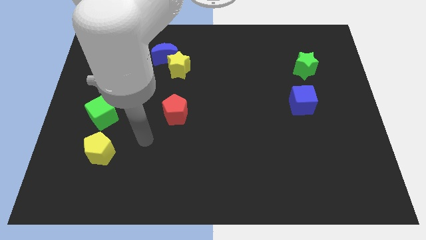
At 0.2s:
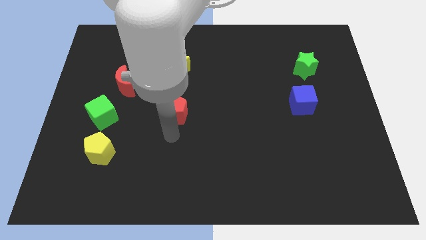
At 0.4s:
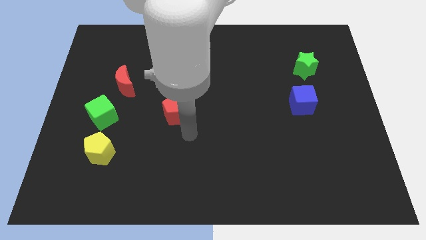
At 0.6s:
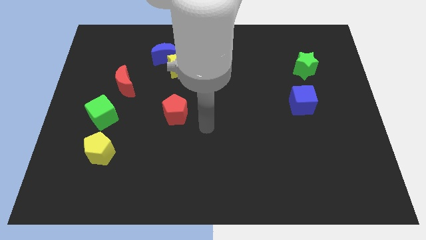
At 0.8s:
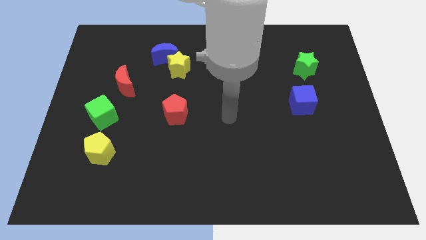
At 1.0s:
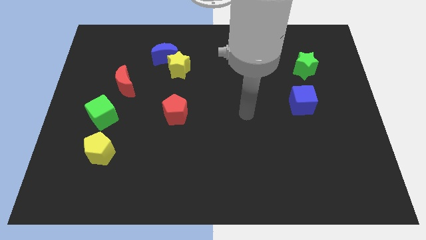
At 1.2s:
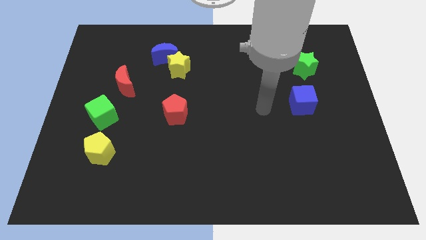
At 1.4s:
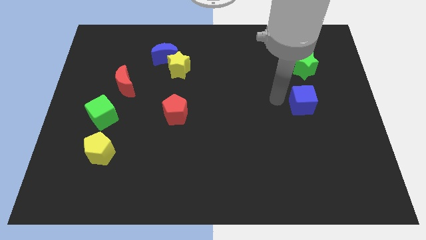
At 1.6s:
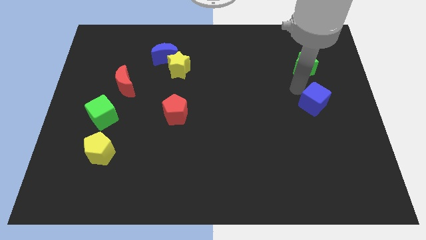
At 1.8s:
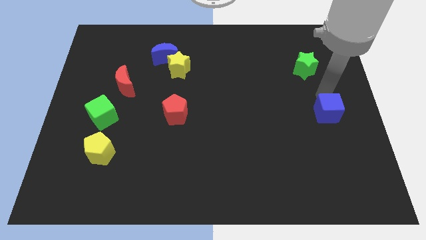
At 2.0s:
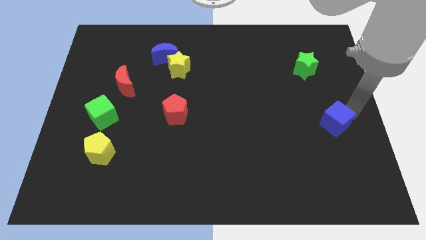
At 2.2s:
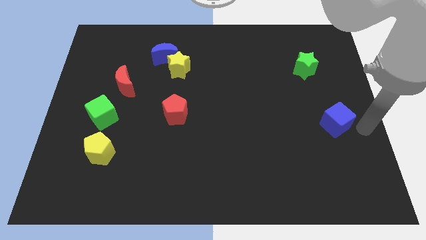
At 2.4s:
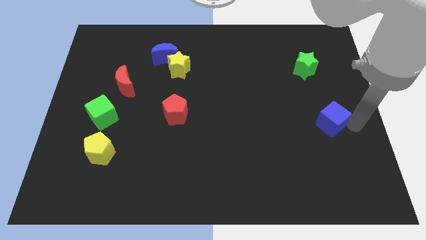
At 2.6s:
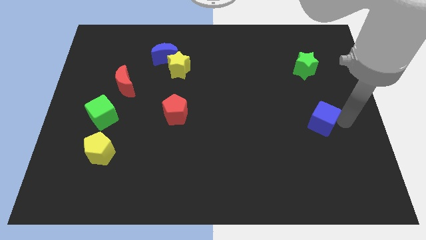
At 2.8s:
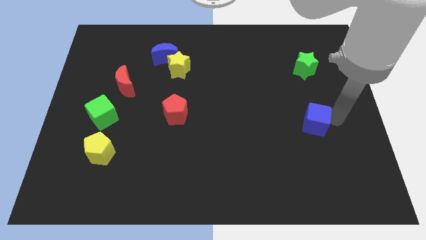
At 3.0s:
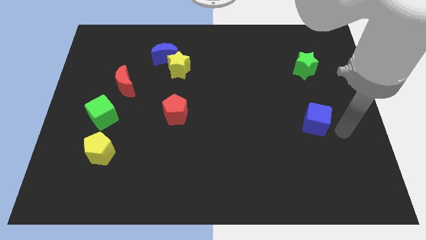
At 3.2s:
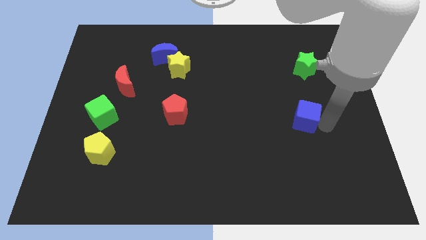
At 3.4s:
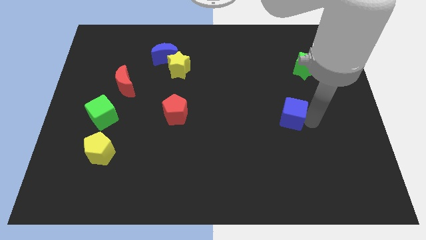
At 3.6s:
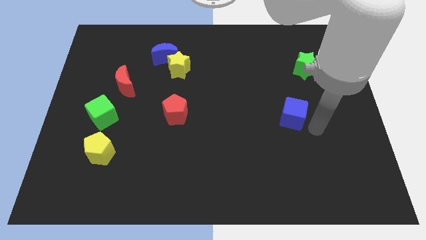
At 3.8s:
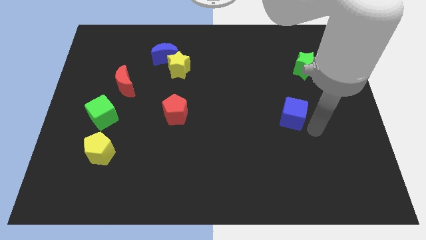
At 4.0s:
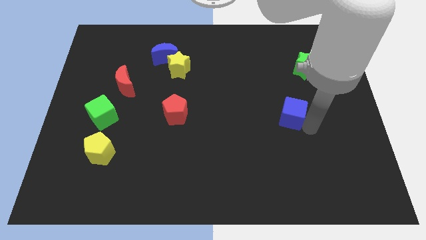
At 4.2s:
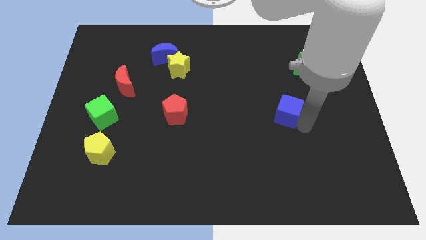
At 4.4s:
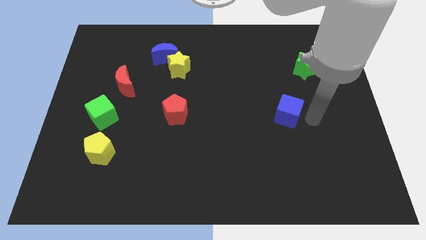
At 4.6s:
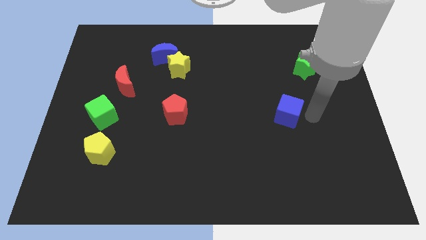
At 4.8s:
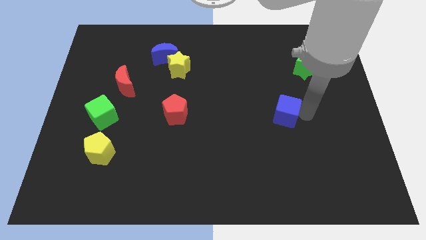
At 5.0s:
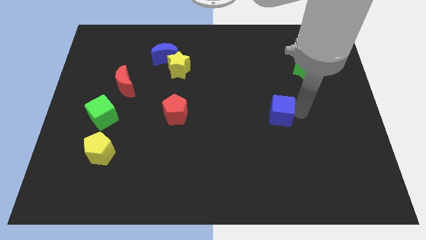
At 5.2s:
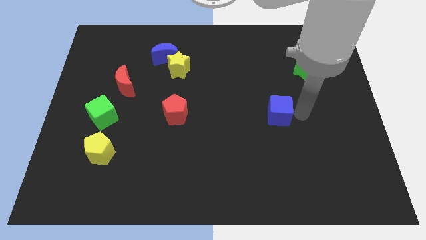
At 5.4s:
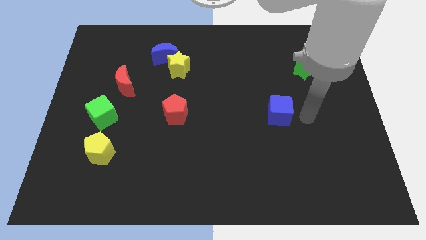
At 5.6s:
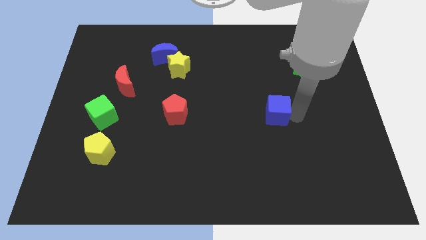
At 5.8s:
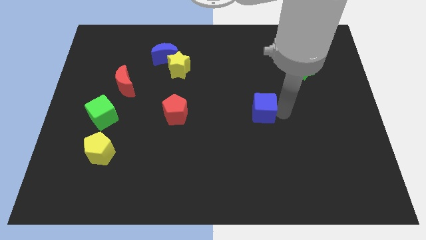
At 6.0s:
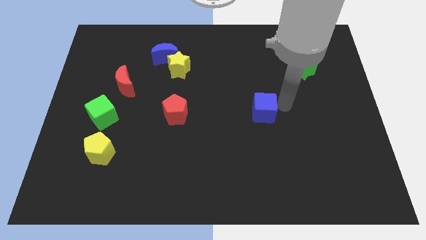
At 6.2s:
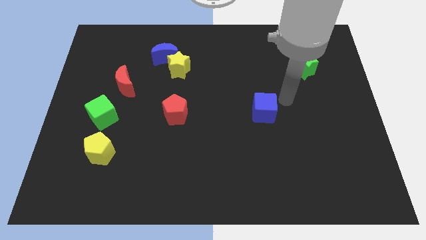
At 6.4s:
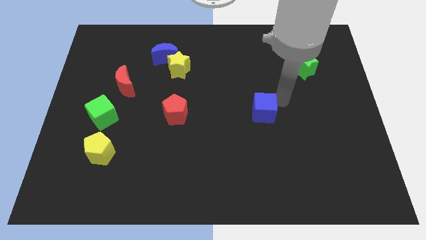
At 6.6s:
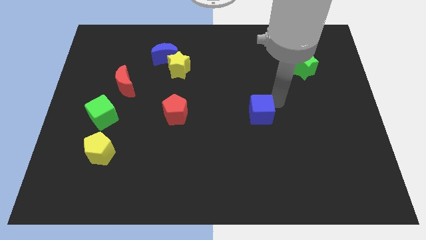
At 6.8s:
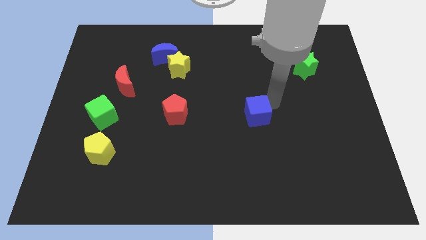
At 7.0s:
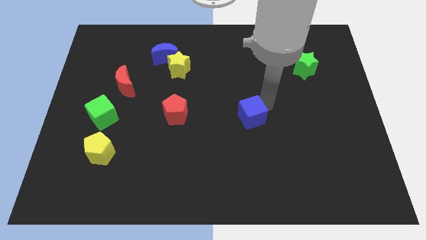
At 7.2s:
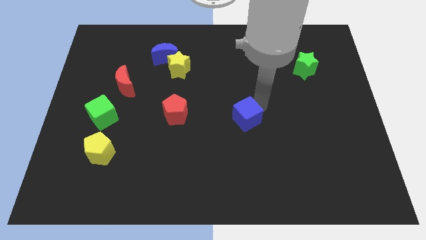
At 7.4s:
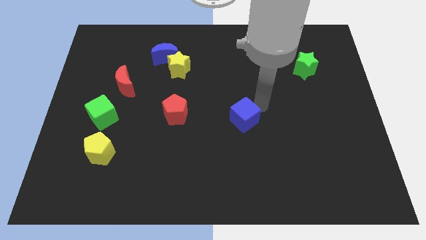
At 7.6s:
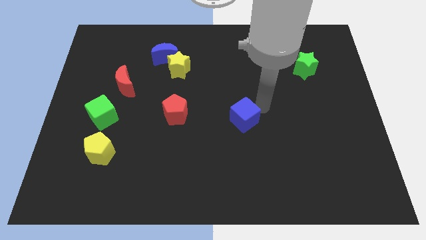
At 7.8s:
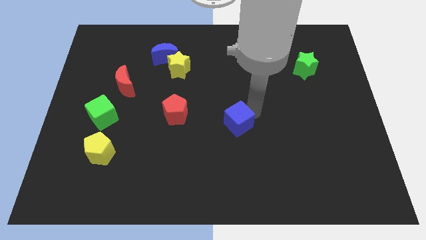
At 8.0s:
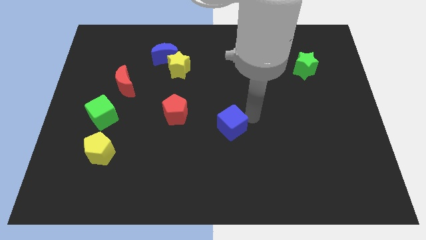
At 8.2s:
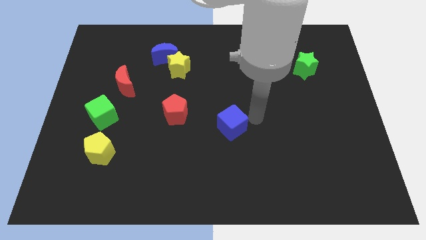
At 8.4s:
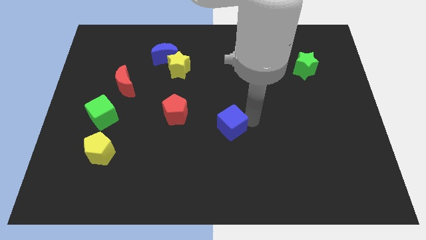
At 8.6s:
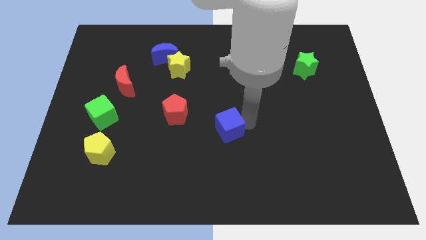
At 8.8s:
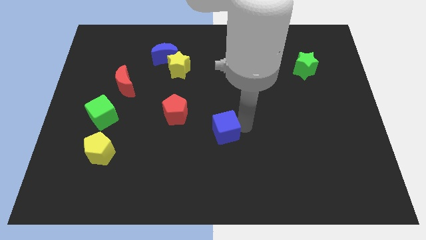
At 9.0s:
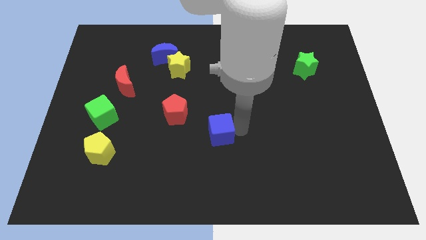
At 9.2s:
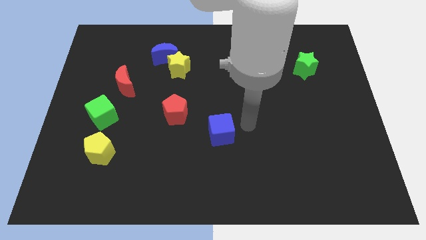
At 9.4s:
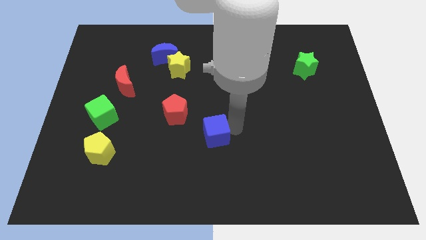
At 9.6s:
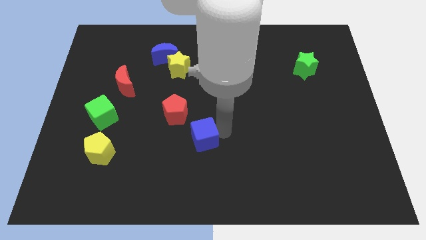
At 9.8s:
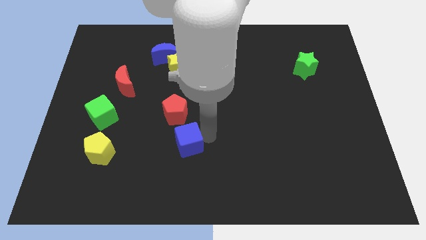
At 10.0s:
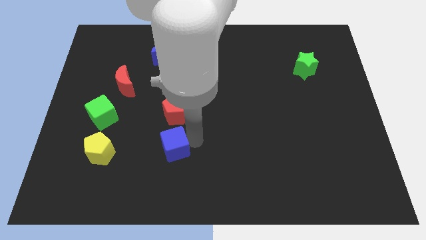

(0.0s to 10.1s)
push the blue cube to the right side of the yellow pentagon

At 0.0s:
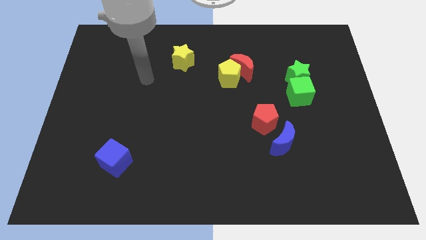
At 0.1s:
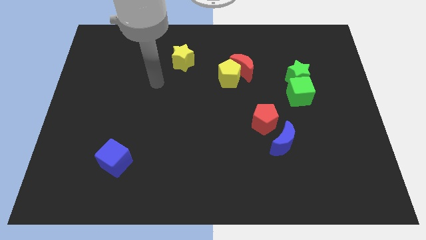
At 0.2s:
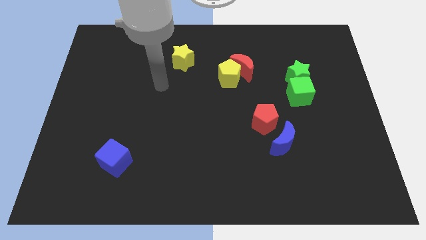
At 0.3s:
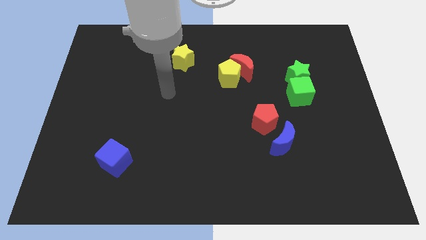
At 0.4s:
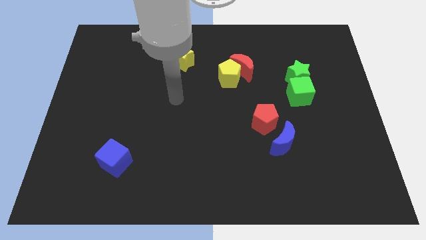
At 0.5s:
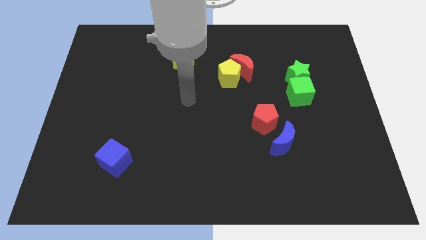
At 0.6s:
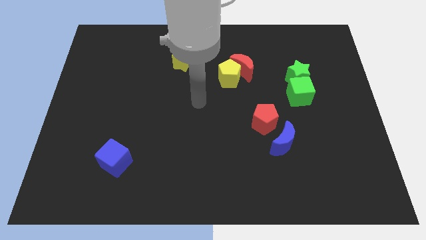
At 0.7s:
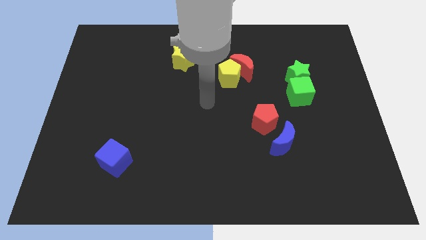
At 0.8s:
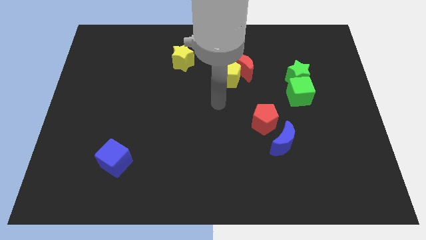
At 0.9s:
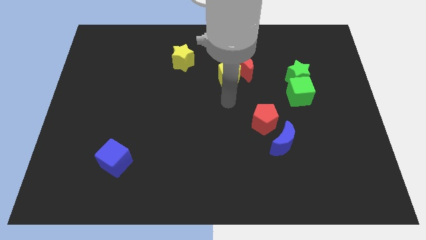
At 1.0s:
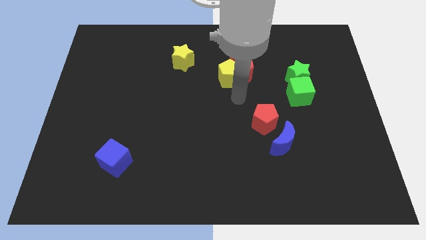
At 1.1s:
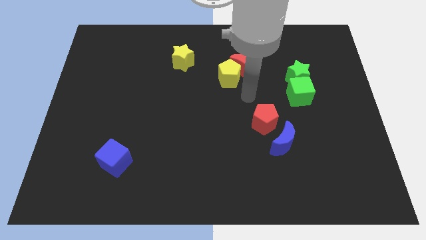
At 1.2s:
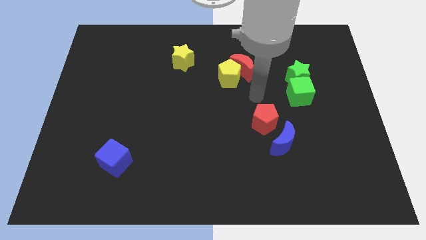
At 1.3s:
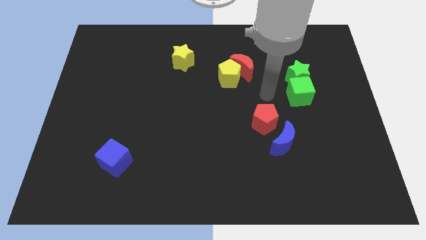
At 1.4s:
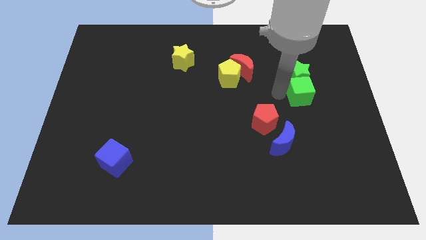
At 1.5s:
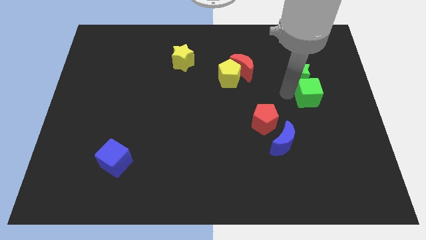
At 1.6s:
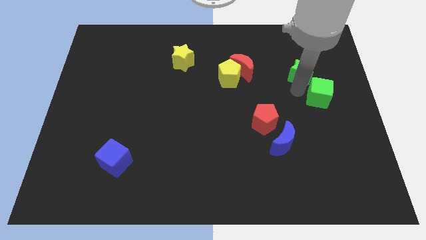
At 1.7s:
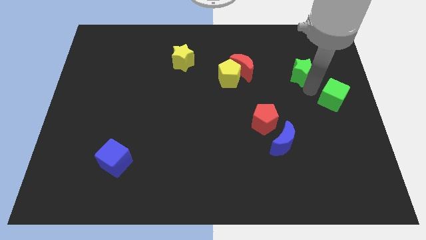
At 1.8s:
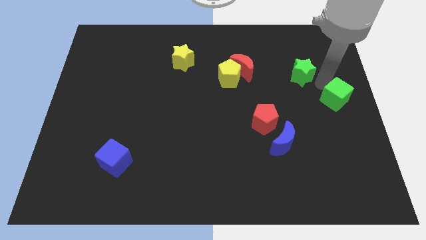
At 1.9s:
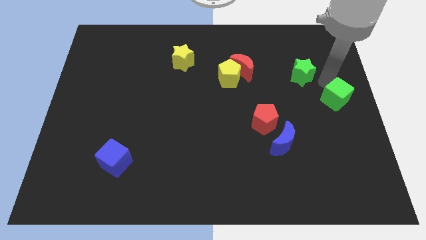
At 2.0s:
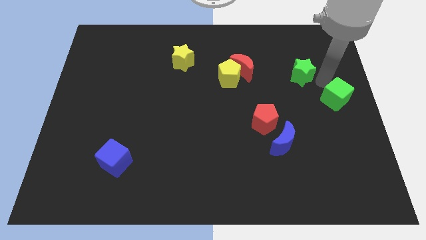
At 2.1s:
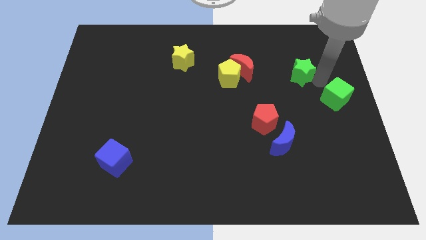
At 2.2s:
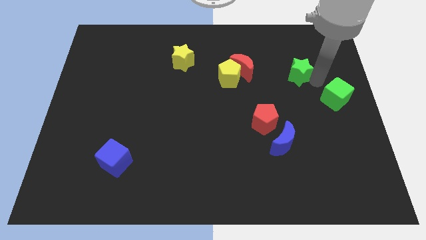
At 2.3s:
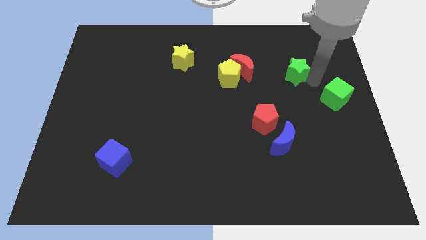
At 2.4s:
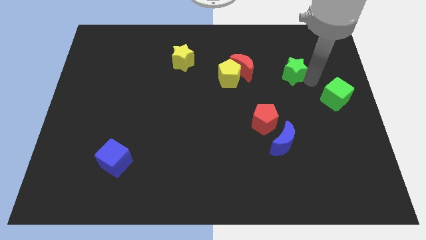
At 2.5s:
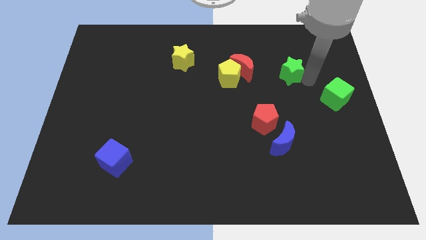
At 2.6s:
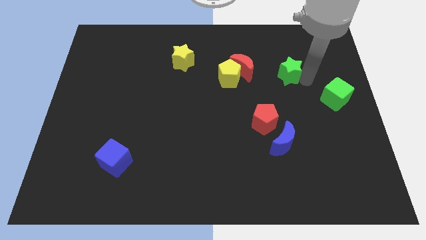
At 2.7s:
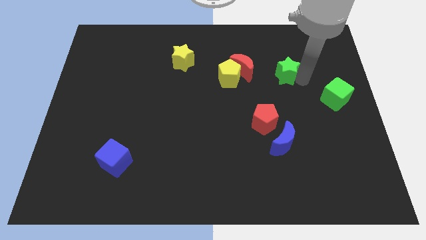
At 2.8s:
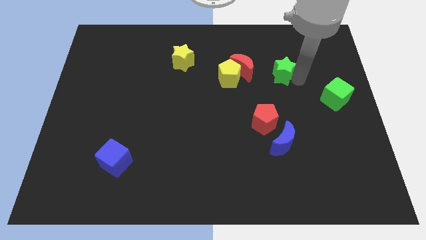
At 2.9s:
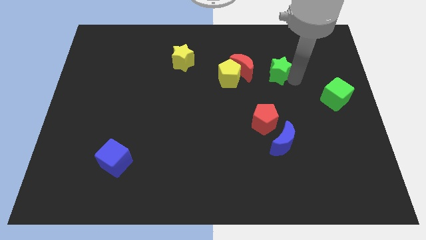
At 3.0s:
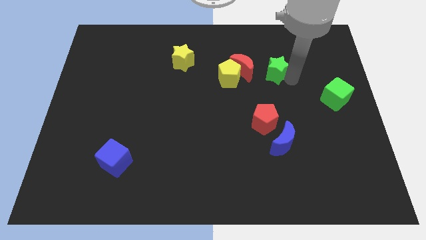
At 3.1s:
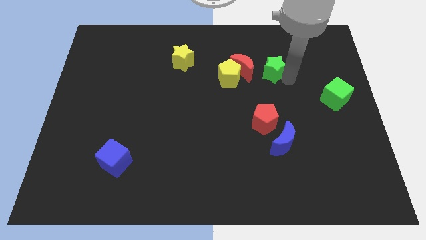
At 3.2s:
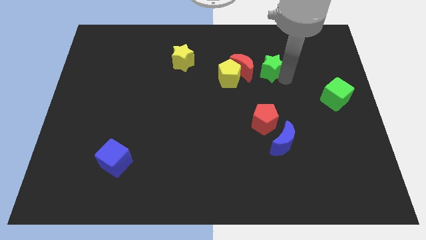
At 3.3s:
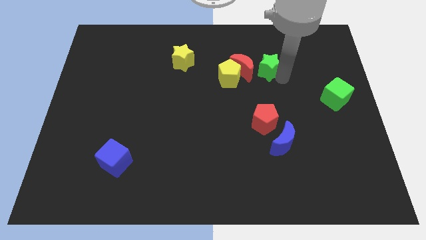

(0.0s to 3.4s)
push the green star to the top right of the red moon
